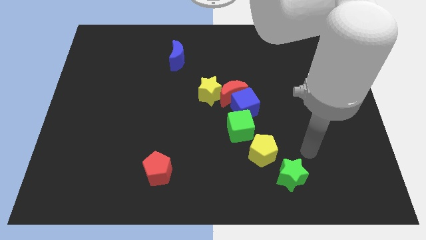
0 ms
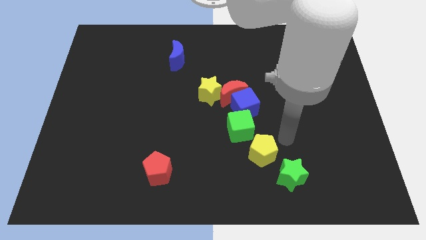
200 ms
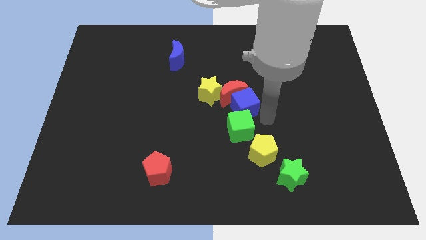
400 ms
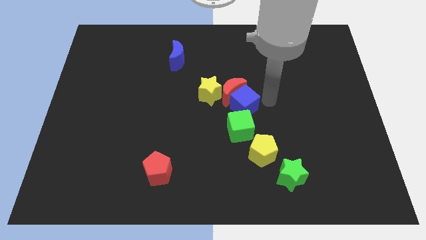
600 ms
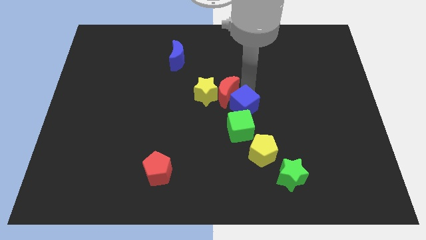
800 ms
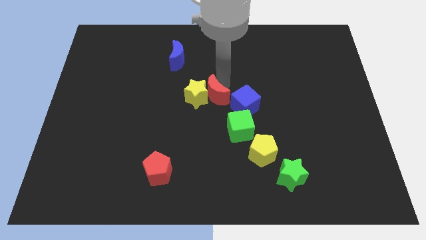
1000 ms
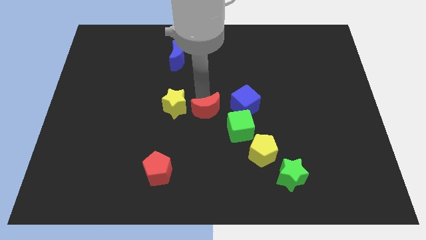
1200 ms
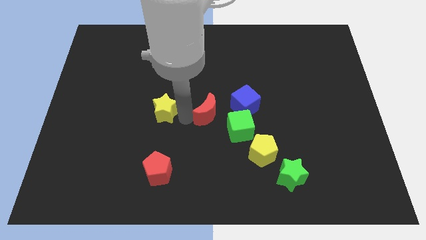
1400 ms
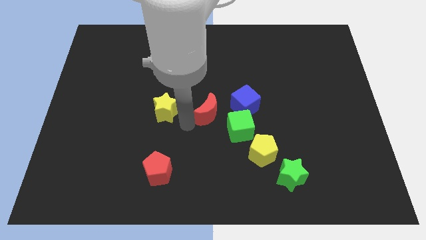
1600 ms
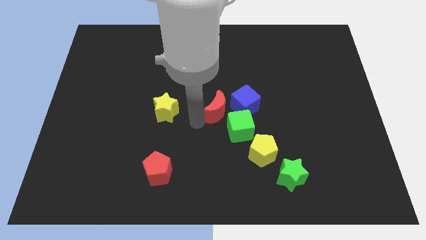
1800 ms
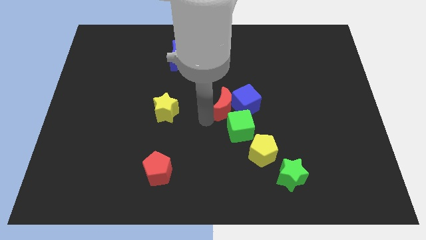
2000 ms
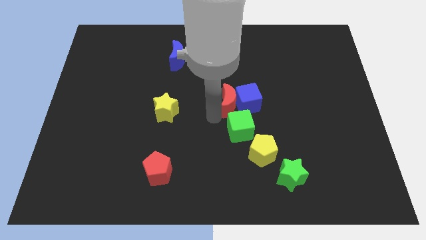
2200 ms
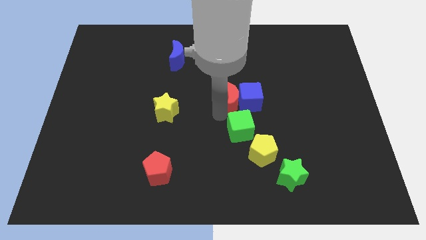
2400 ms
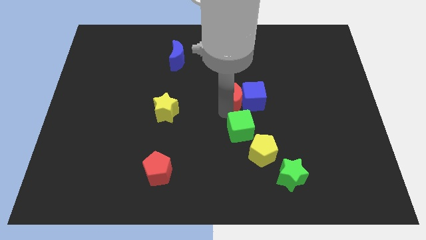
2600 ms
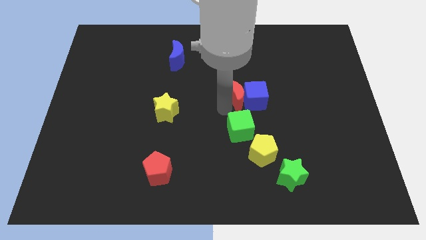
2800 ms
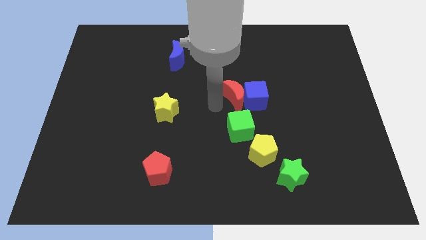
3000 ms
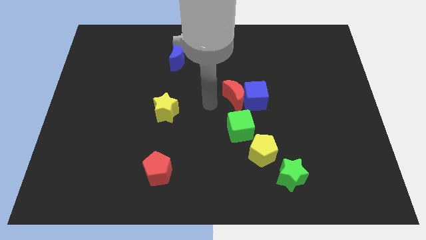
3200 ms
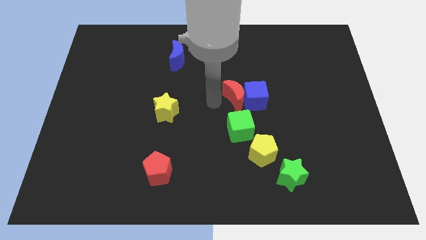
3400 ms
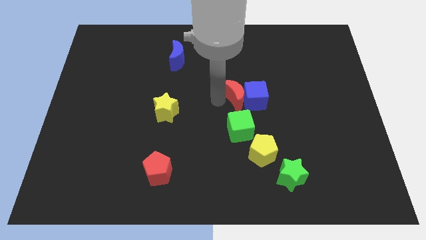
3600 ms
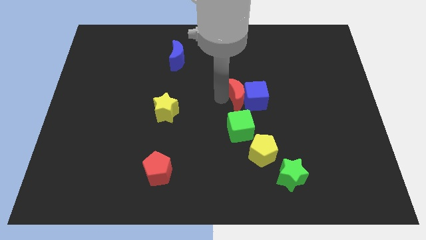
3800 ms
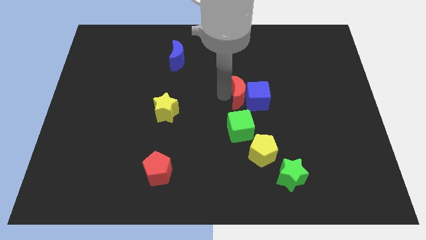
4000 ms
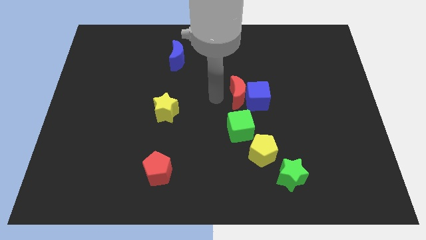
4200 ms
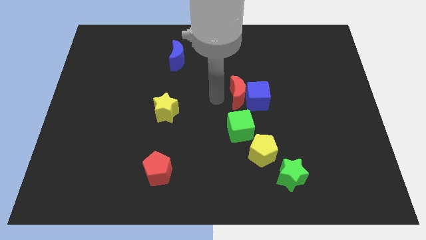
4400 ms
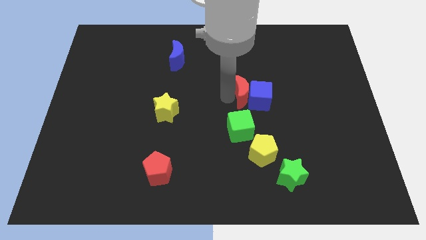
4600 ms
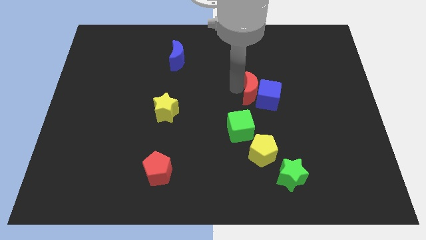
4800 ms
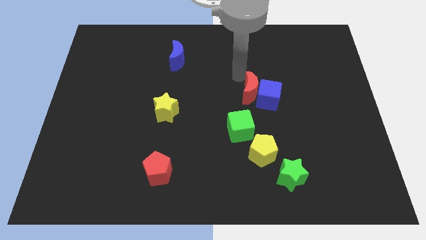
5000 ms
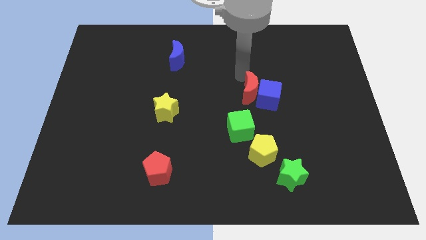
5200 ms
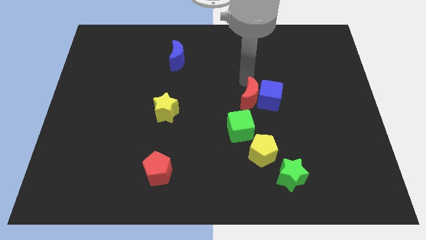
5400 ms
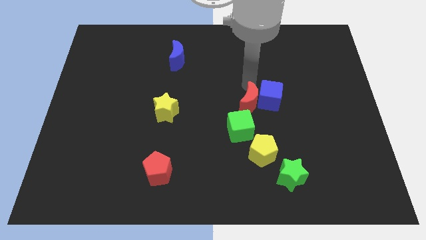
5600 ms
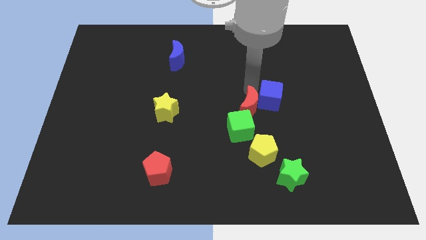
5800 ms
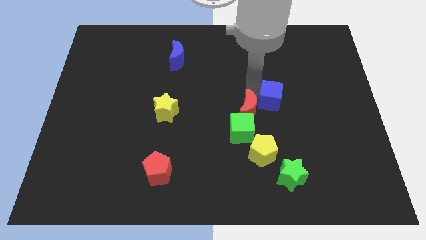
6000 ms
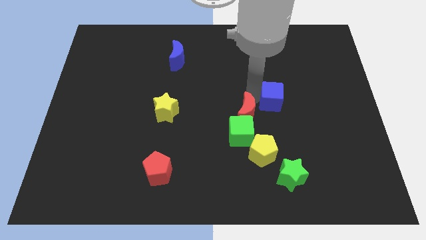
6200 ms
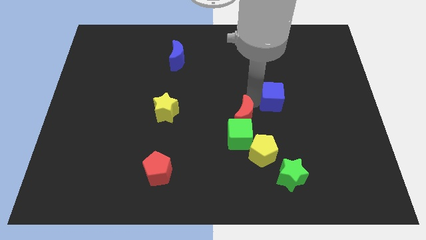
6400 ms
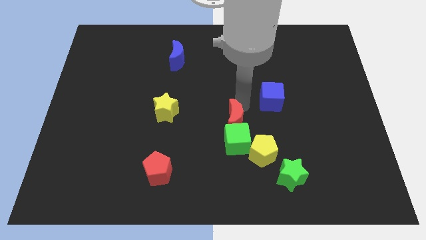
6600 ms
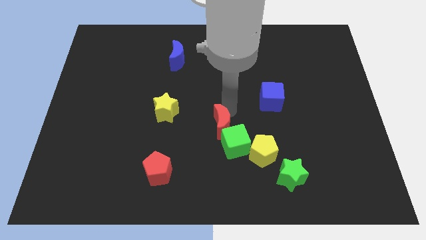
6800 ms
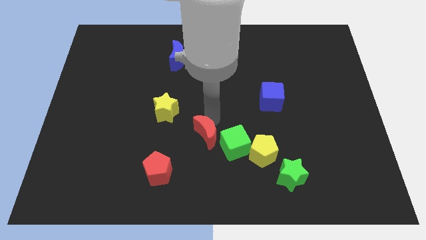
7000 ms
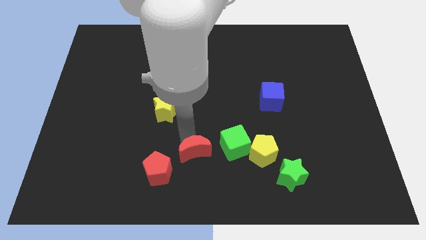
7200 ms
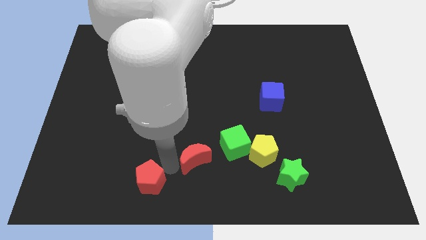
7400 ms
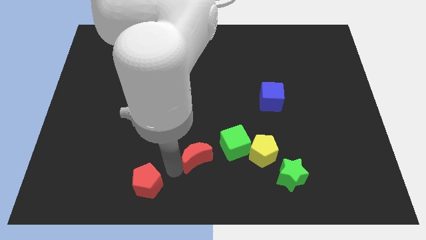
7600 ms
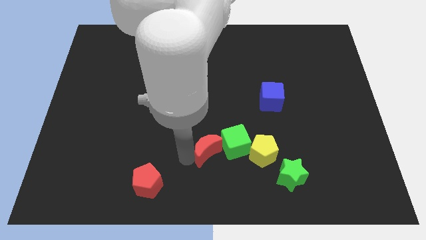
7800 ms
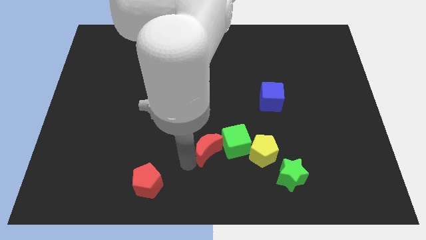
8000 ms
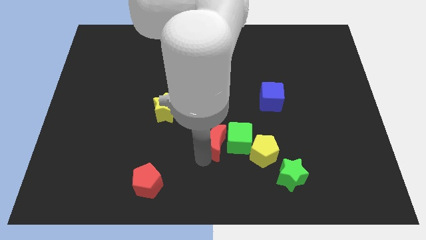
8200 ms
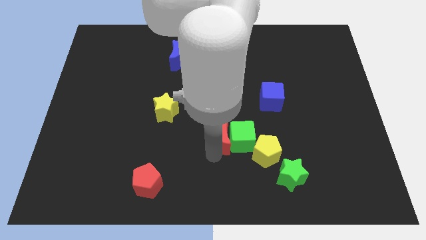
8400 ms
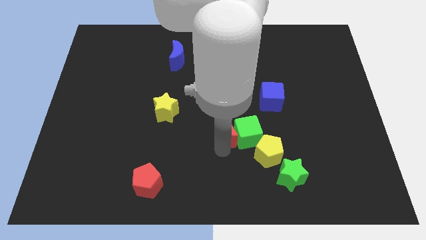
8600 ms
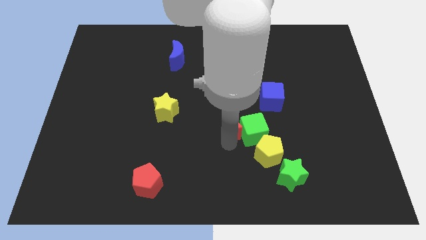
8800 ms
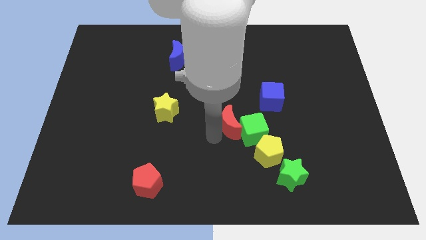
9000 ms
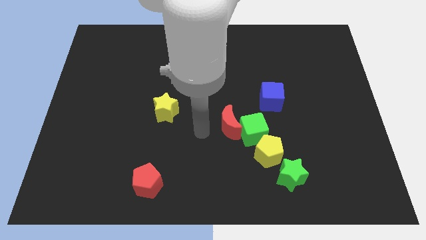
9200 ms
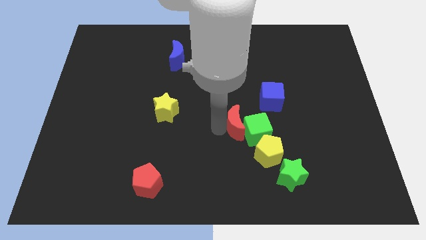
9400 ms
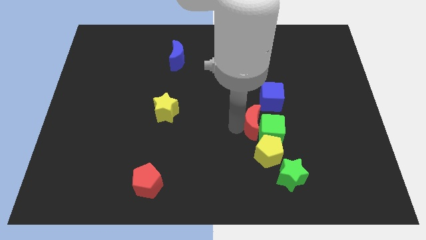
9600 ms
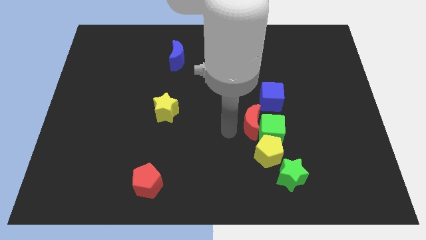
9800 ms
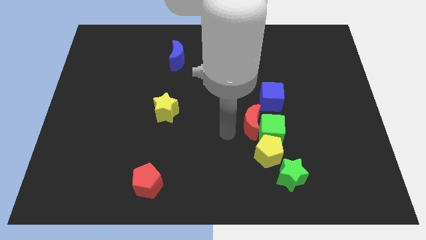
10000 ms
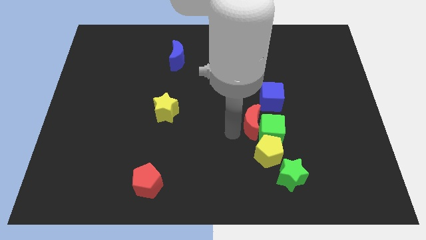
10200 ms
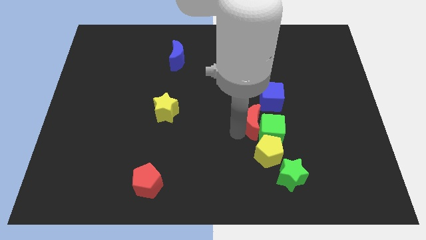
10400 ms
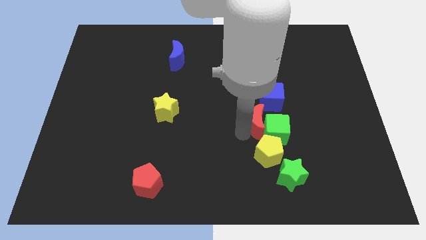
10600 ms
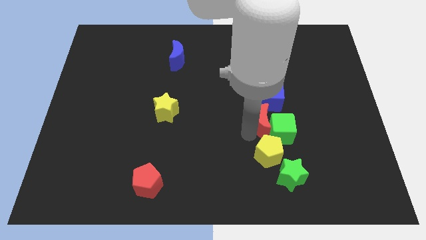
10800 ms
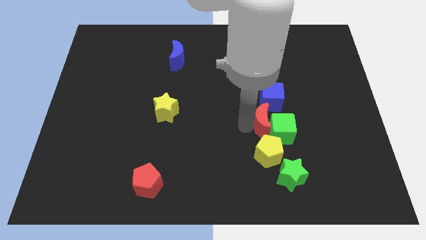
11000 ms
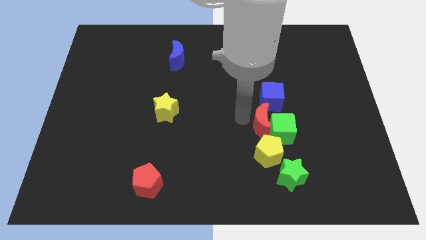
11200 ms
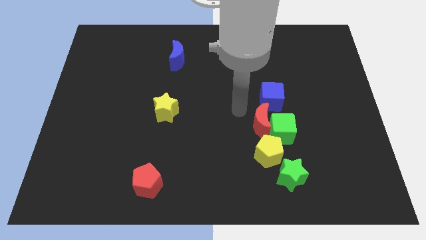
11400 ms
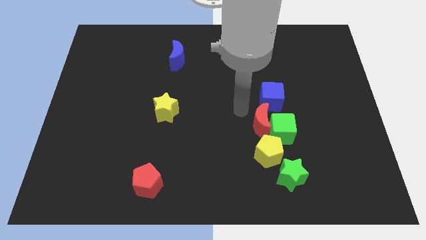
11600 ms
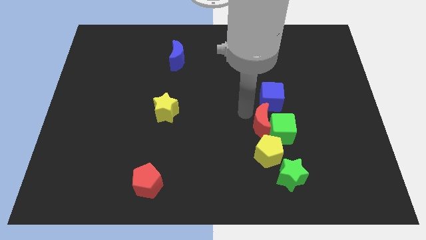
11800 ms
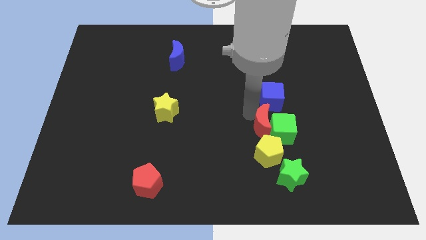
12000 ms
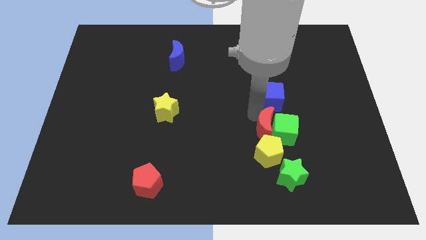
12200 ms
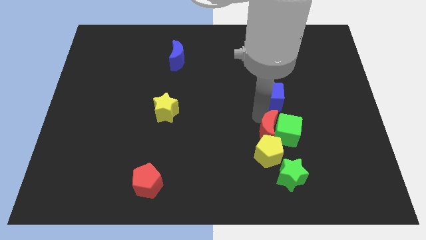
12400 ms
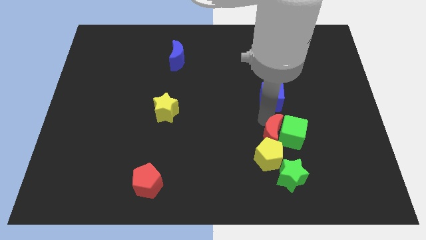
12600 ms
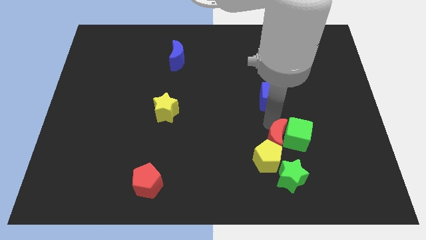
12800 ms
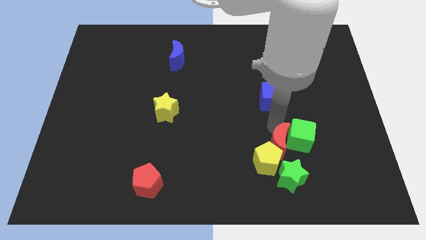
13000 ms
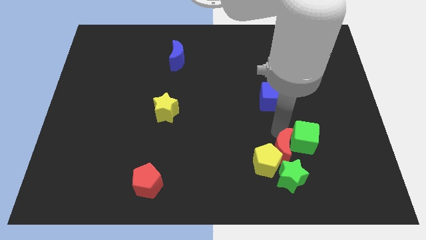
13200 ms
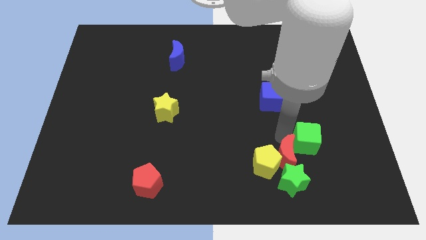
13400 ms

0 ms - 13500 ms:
move the red moon to the green star
